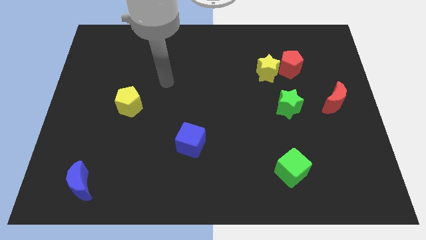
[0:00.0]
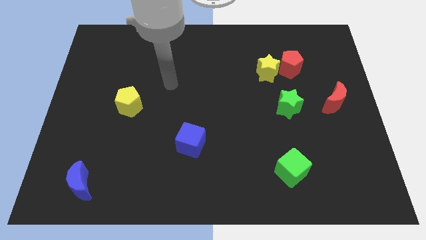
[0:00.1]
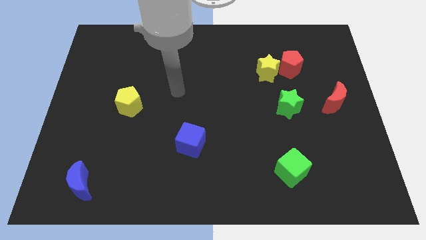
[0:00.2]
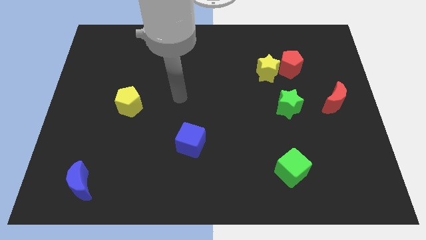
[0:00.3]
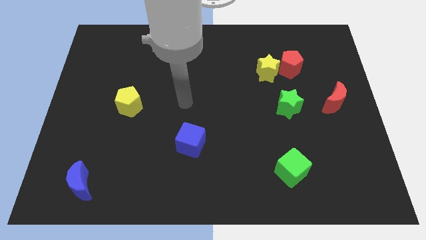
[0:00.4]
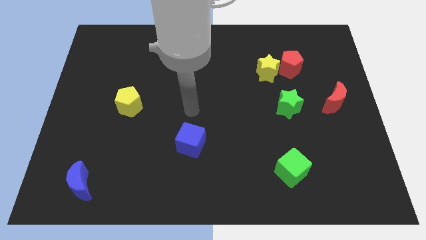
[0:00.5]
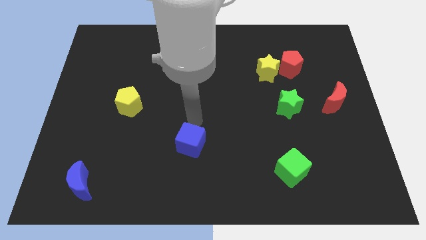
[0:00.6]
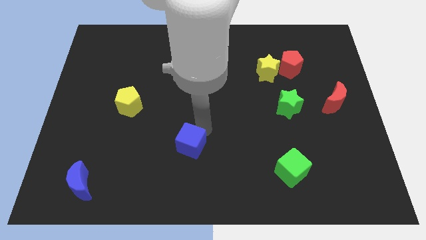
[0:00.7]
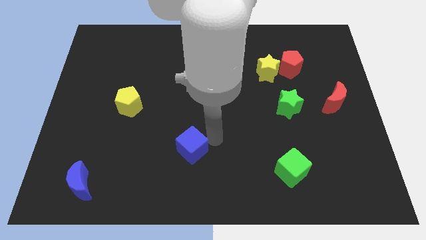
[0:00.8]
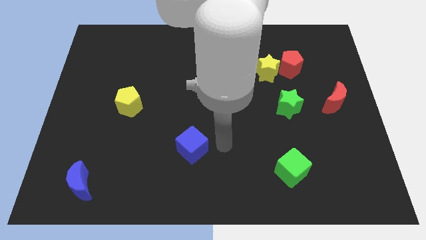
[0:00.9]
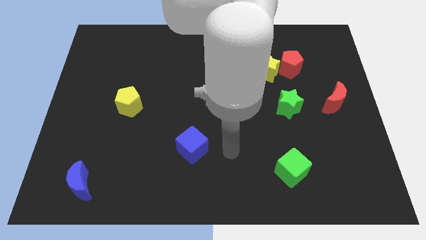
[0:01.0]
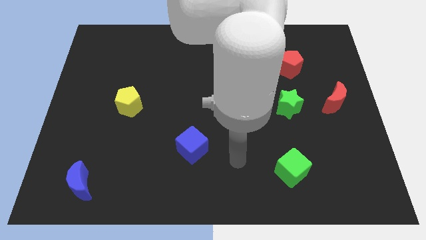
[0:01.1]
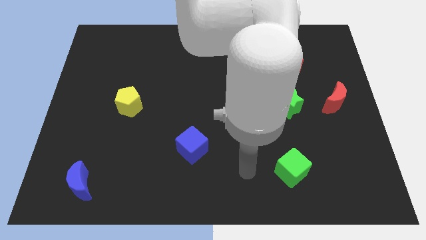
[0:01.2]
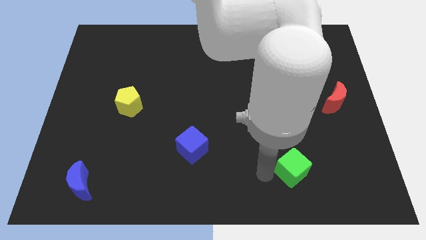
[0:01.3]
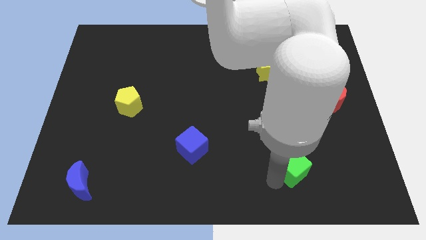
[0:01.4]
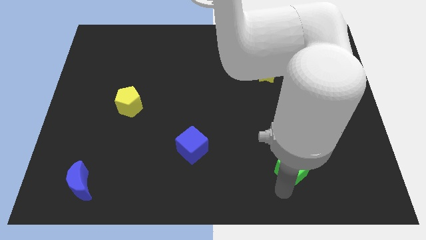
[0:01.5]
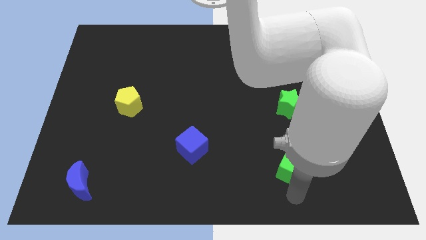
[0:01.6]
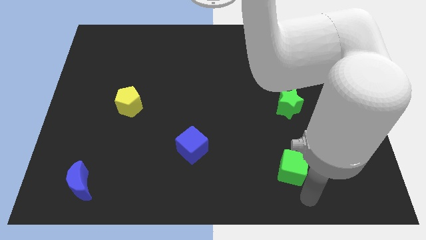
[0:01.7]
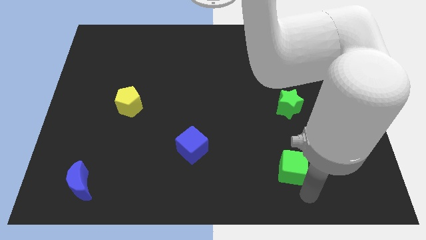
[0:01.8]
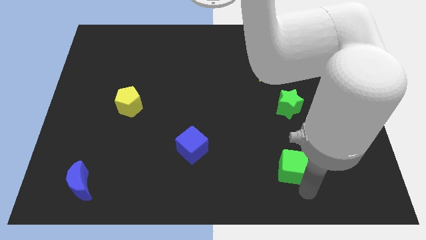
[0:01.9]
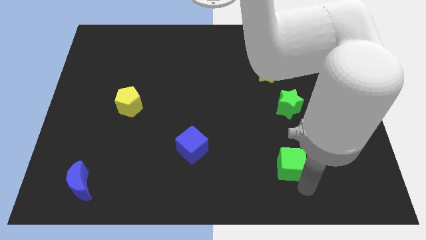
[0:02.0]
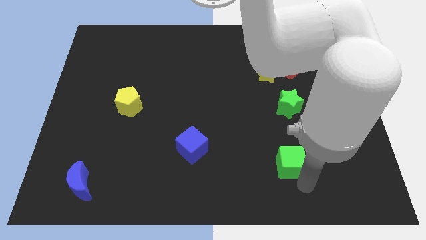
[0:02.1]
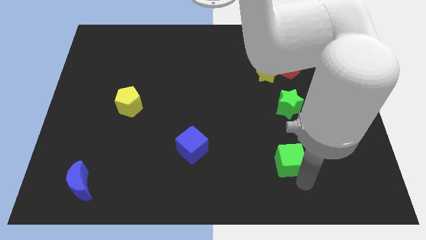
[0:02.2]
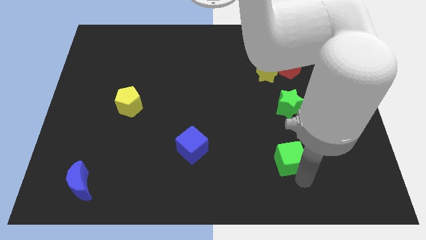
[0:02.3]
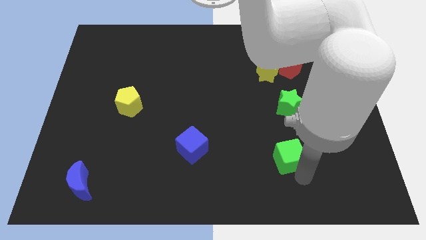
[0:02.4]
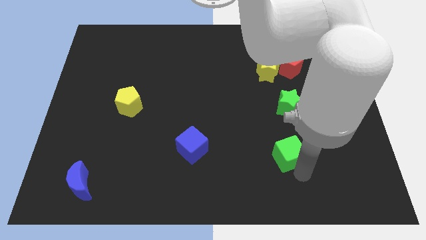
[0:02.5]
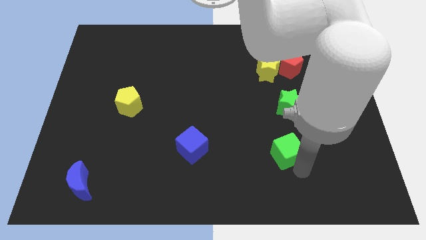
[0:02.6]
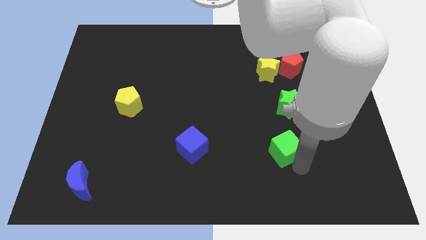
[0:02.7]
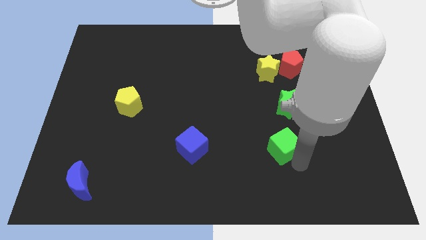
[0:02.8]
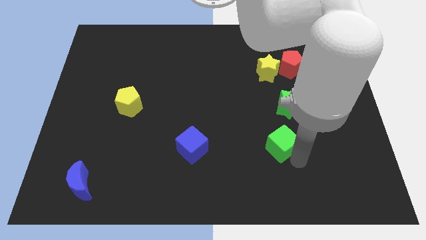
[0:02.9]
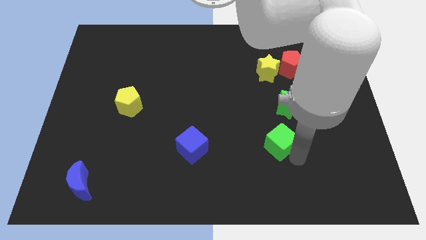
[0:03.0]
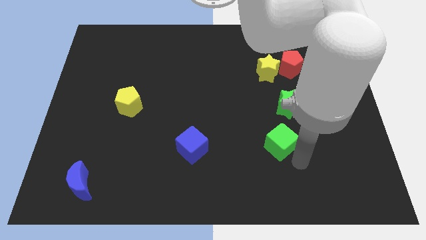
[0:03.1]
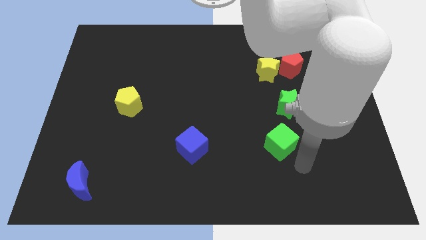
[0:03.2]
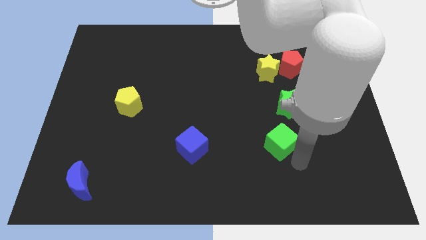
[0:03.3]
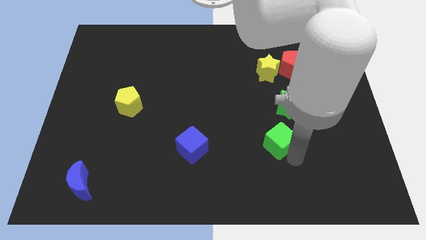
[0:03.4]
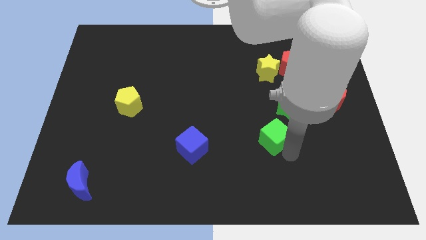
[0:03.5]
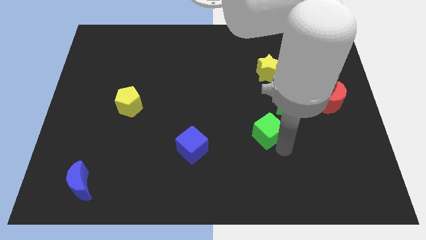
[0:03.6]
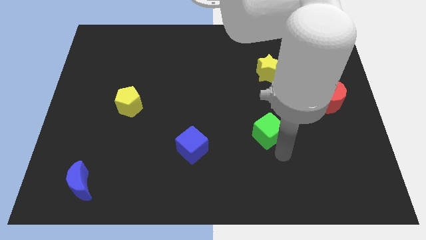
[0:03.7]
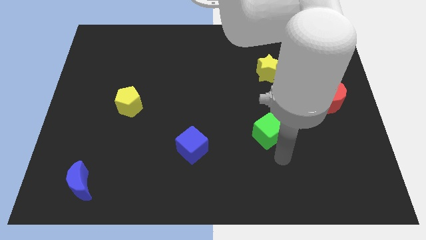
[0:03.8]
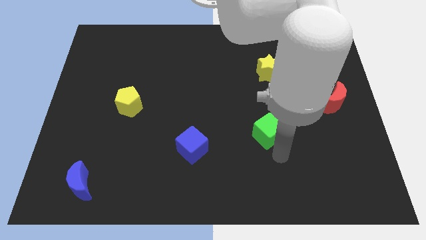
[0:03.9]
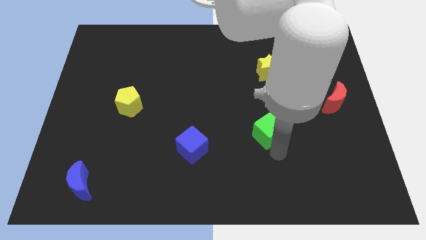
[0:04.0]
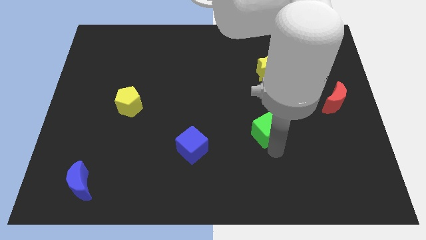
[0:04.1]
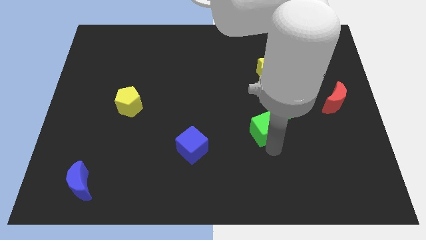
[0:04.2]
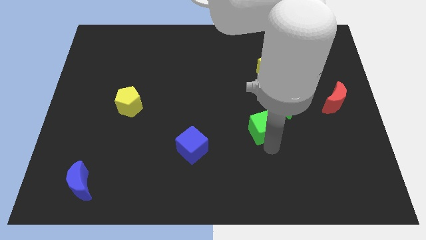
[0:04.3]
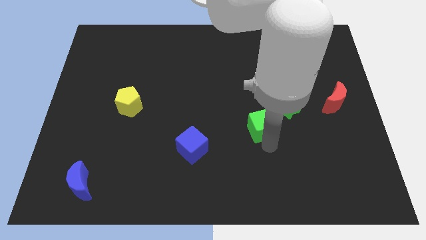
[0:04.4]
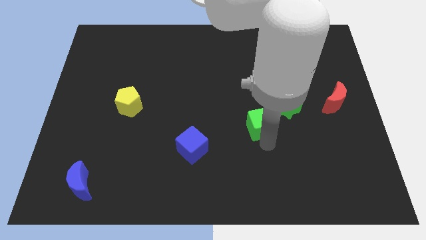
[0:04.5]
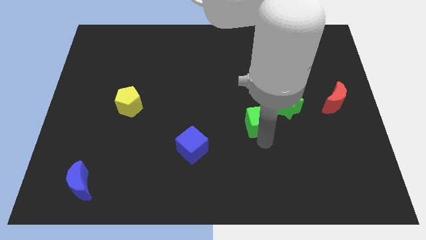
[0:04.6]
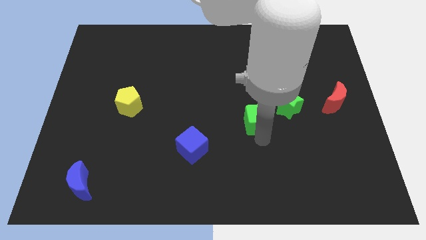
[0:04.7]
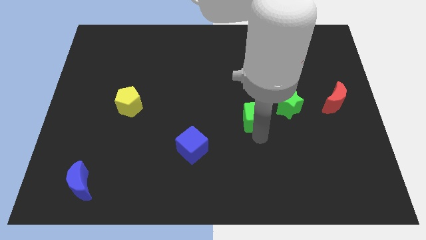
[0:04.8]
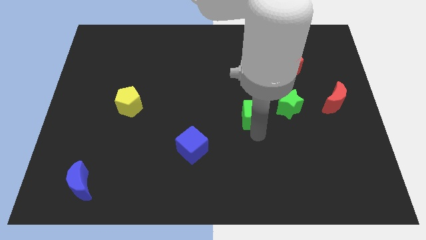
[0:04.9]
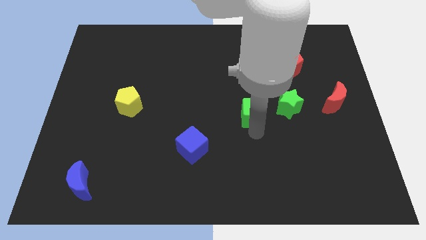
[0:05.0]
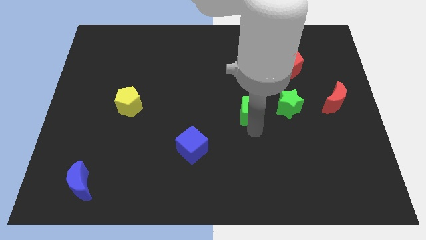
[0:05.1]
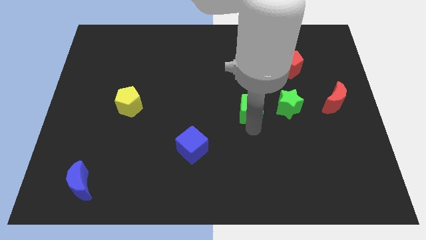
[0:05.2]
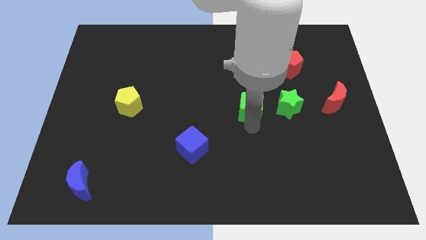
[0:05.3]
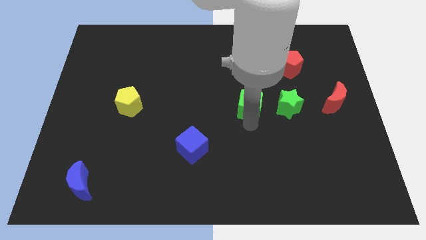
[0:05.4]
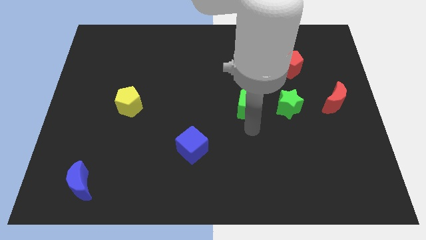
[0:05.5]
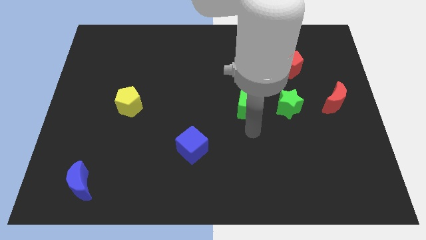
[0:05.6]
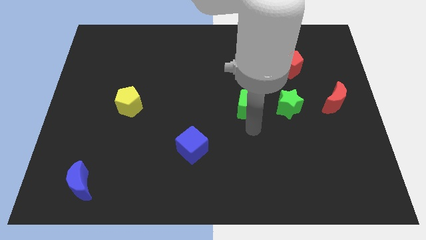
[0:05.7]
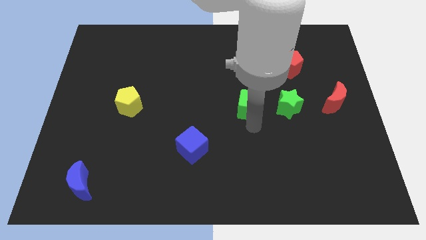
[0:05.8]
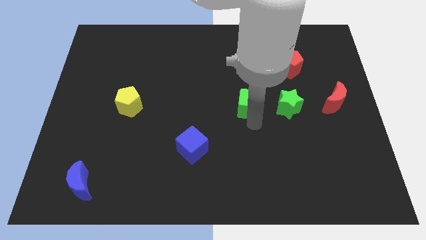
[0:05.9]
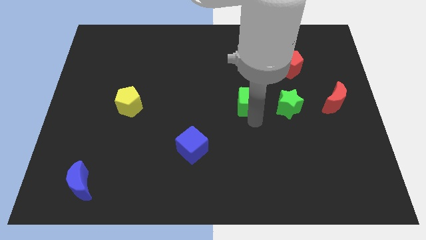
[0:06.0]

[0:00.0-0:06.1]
slide the green cube diagonally down and to the left of the yellow star

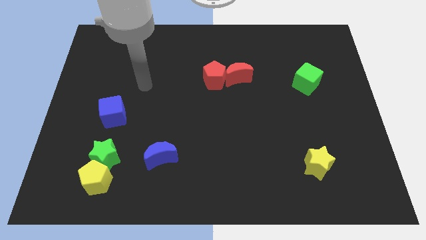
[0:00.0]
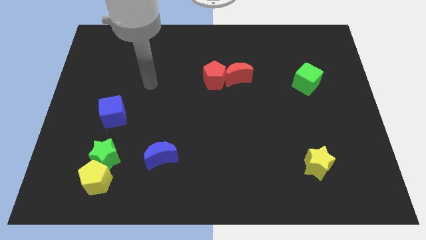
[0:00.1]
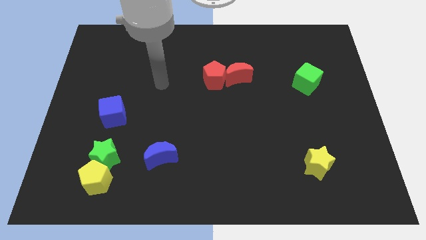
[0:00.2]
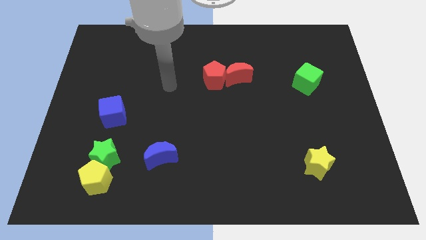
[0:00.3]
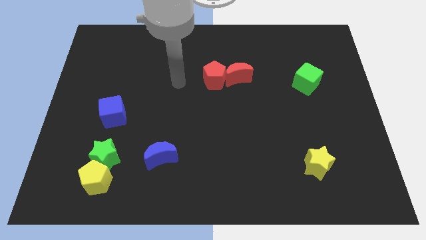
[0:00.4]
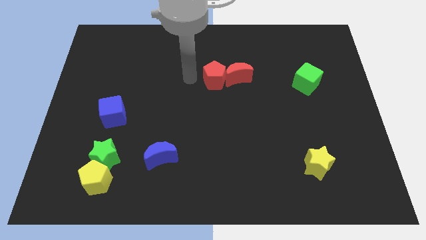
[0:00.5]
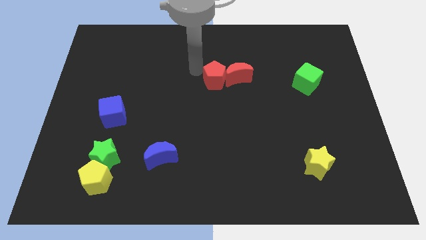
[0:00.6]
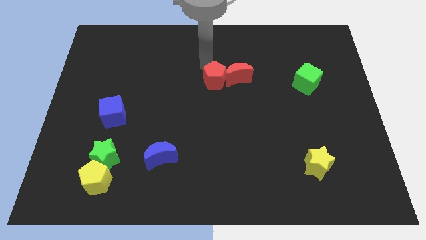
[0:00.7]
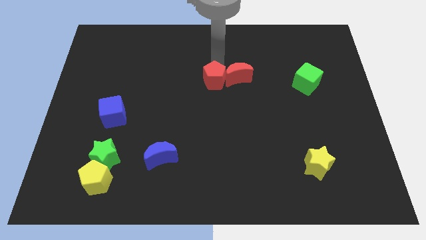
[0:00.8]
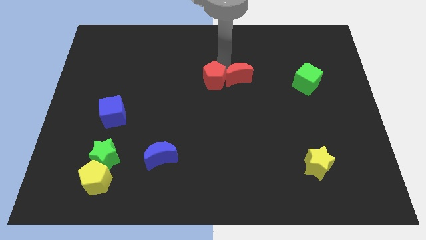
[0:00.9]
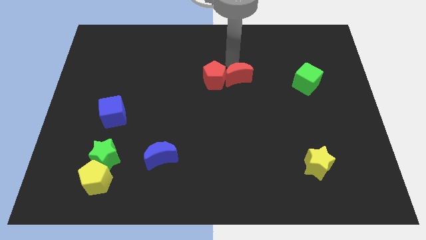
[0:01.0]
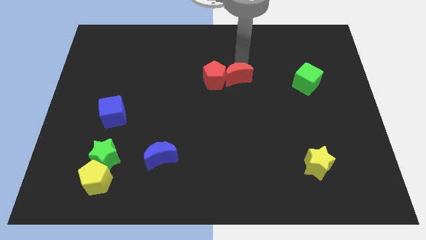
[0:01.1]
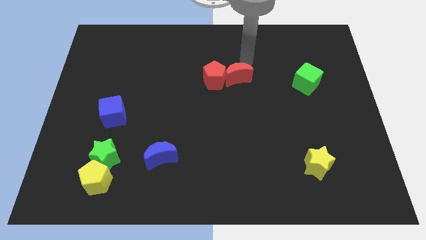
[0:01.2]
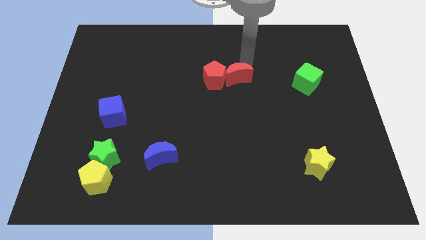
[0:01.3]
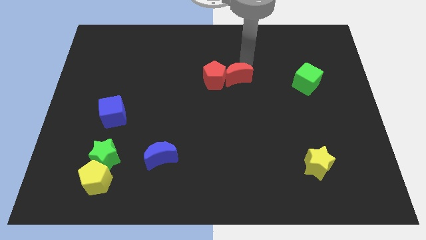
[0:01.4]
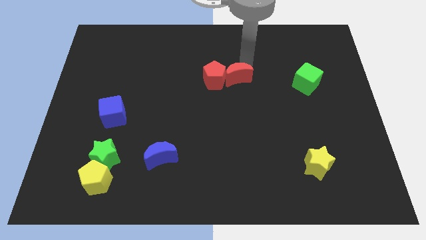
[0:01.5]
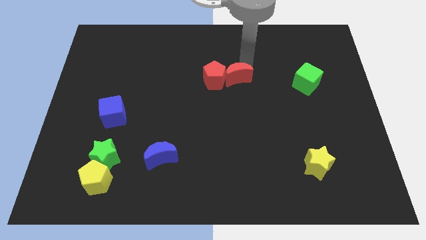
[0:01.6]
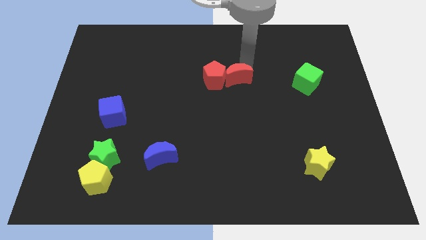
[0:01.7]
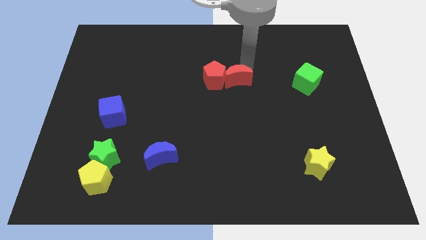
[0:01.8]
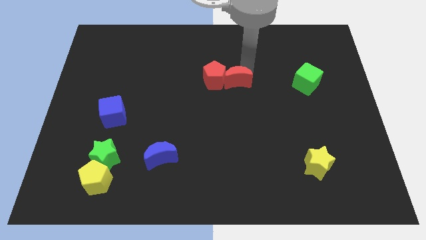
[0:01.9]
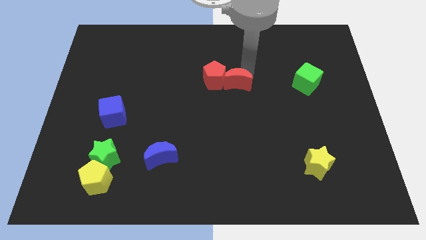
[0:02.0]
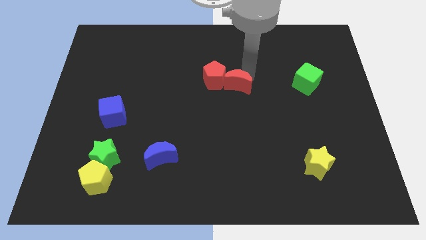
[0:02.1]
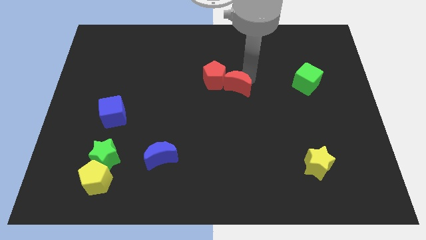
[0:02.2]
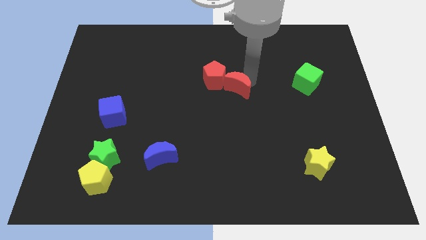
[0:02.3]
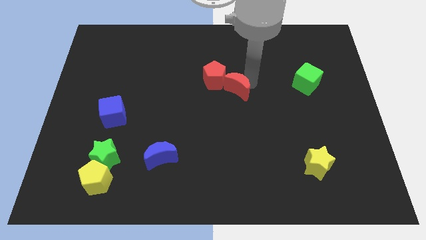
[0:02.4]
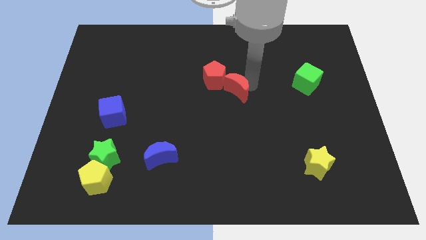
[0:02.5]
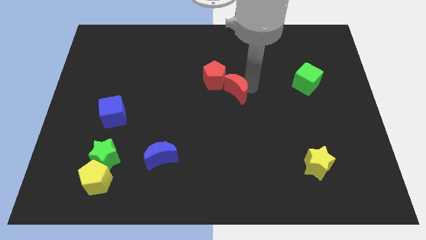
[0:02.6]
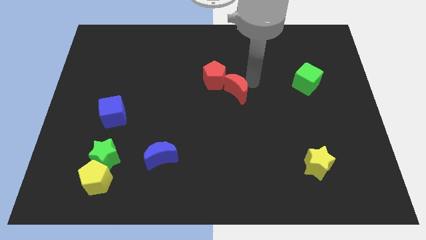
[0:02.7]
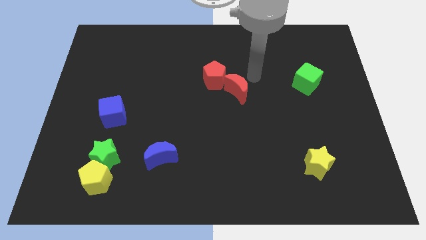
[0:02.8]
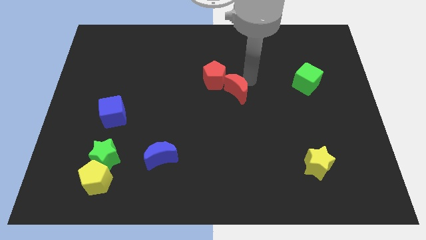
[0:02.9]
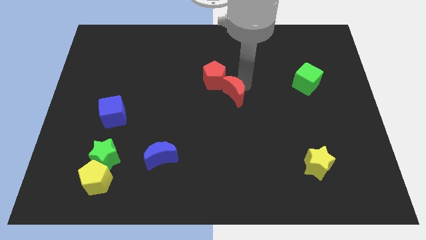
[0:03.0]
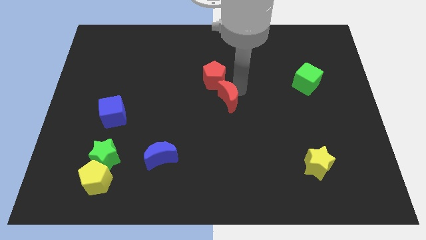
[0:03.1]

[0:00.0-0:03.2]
push the red moon below the red pentagon
